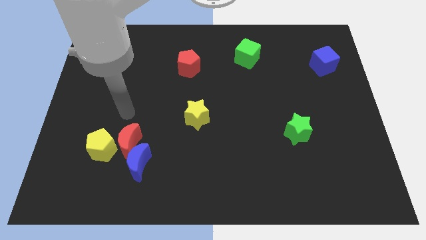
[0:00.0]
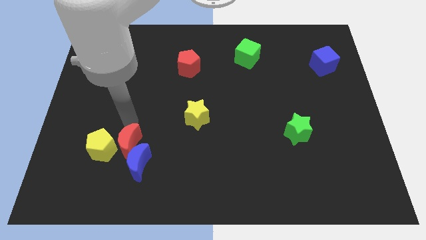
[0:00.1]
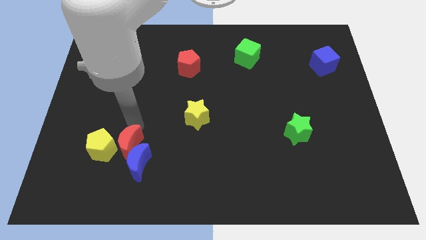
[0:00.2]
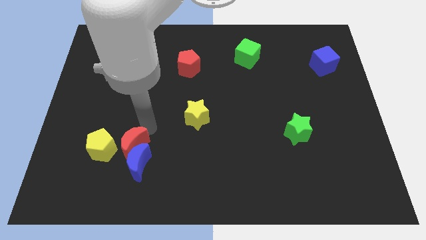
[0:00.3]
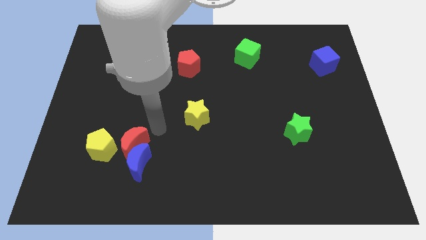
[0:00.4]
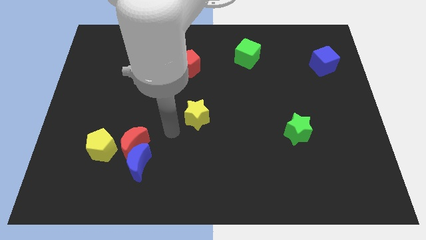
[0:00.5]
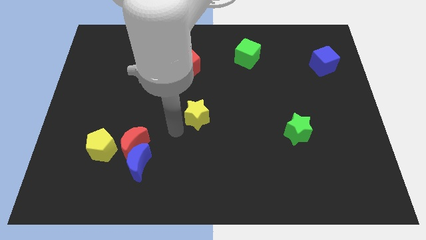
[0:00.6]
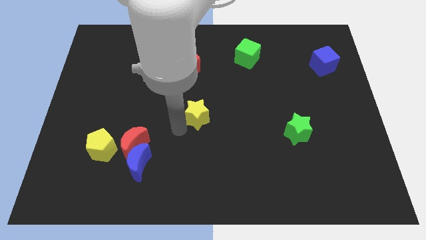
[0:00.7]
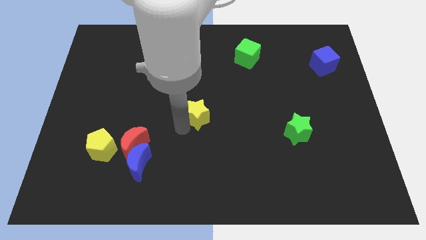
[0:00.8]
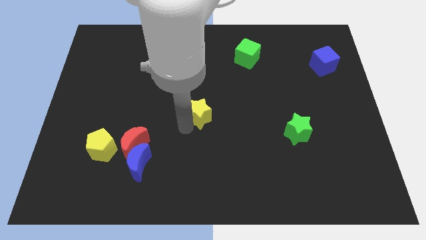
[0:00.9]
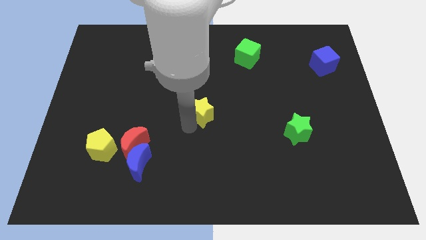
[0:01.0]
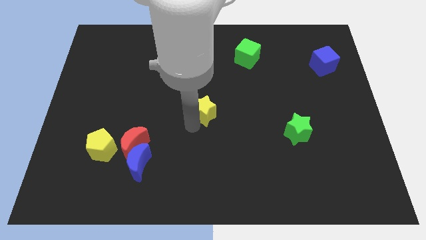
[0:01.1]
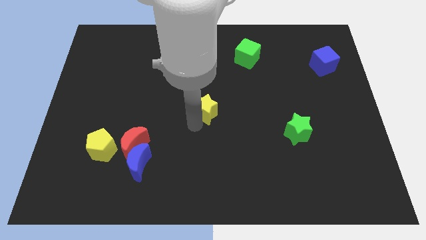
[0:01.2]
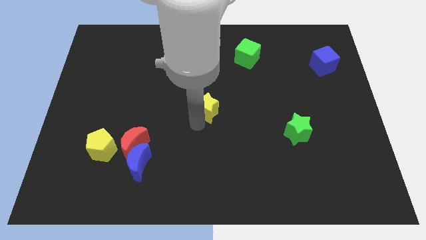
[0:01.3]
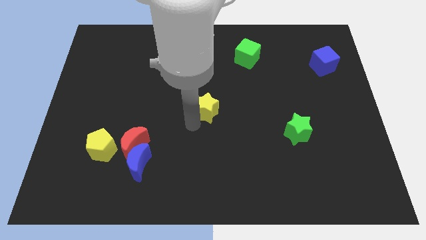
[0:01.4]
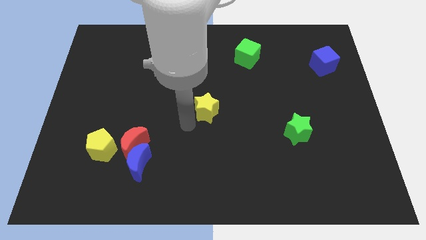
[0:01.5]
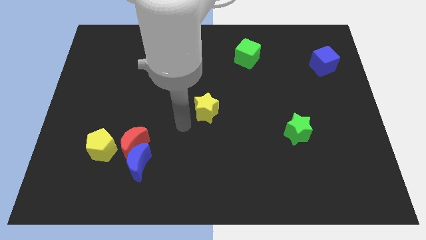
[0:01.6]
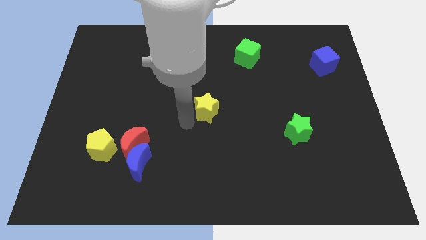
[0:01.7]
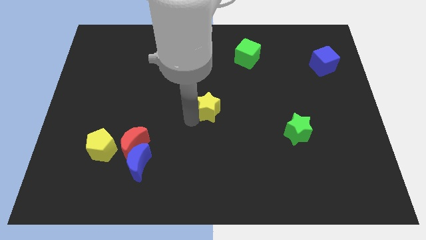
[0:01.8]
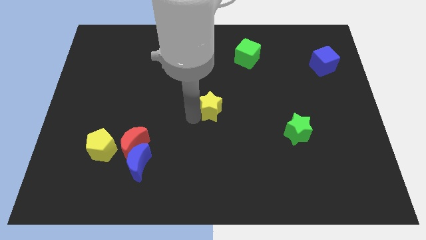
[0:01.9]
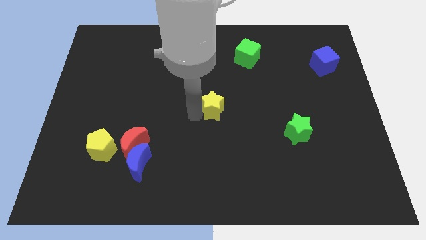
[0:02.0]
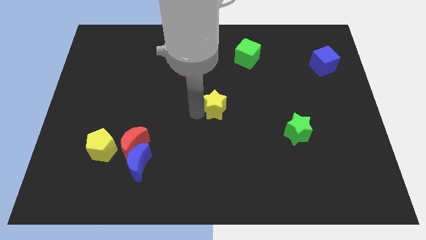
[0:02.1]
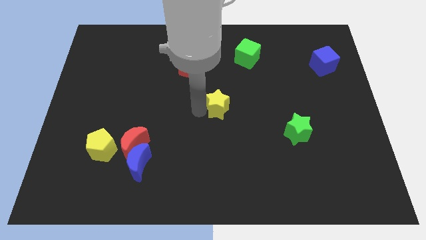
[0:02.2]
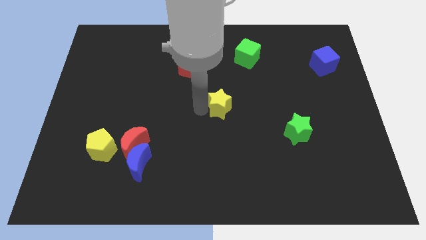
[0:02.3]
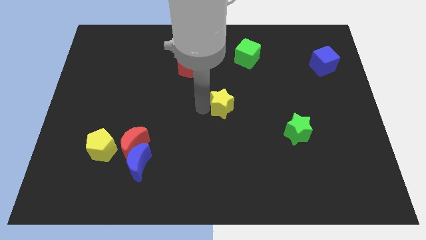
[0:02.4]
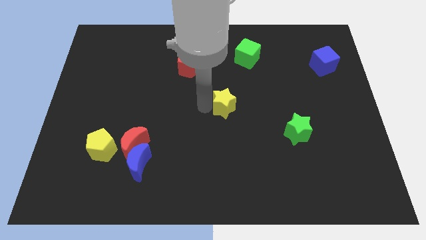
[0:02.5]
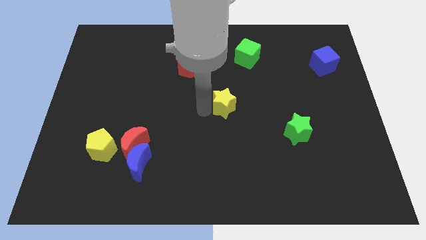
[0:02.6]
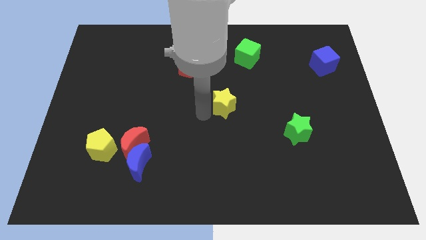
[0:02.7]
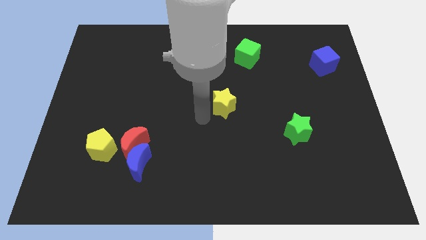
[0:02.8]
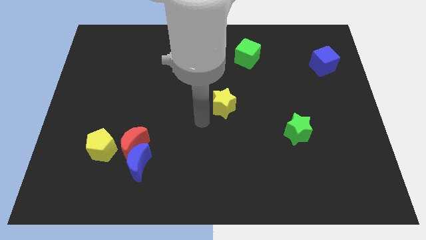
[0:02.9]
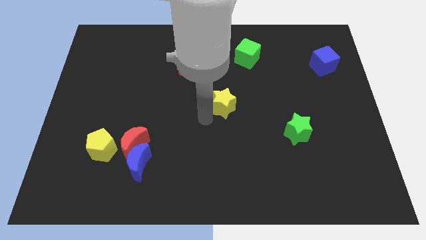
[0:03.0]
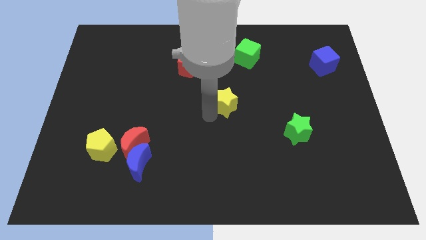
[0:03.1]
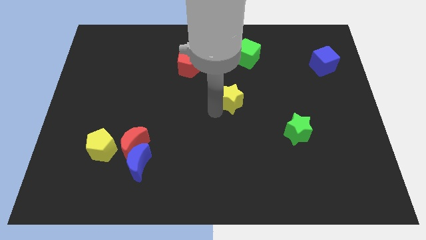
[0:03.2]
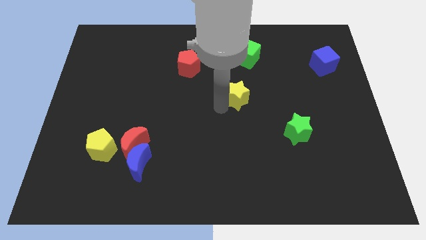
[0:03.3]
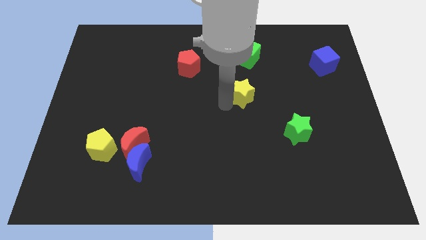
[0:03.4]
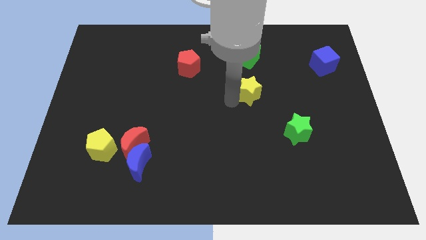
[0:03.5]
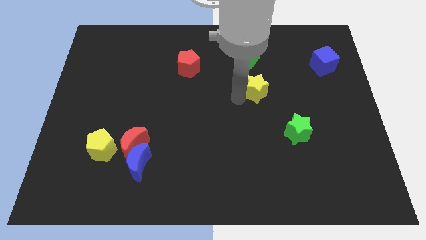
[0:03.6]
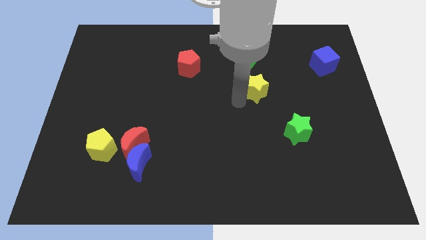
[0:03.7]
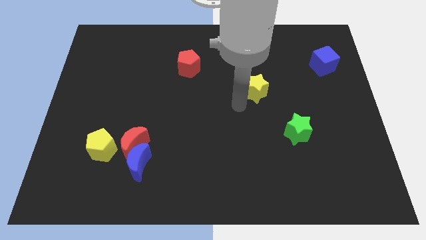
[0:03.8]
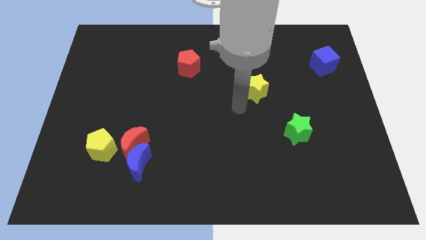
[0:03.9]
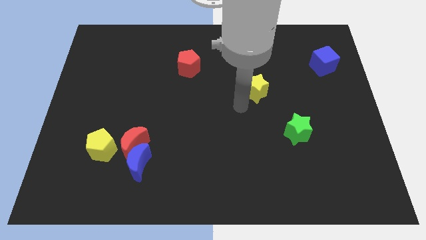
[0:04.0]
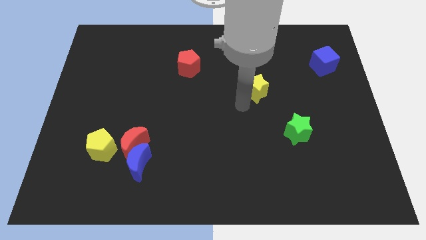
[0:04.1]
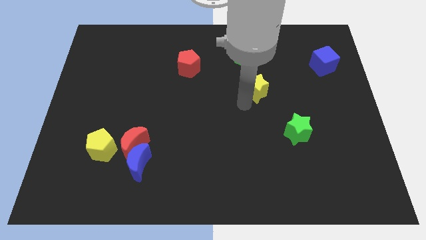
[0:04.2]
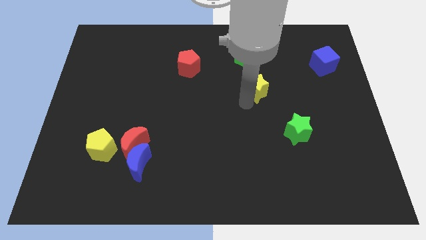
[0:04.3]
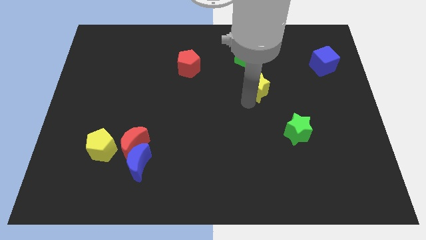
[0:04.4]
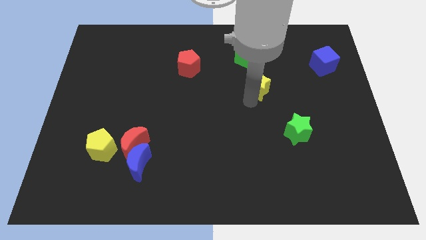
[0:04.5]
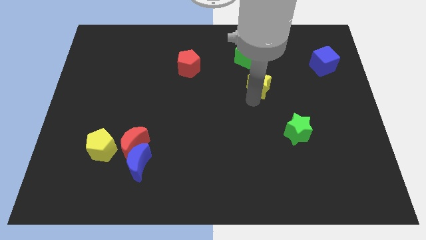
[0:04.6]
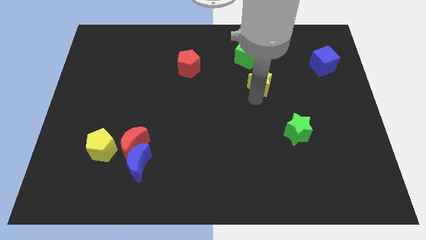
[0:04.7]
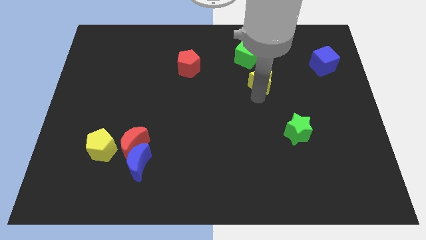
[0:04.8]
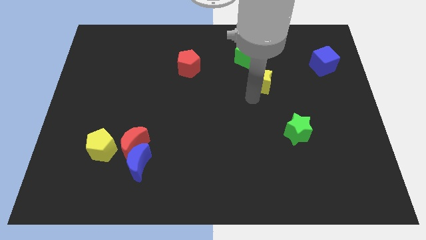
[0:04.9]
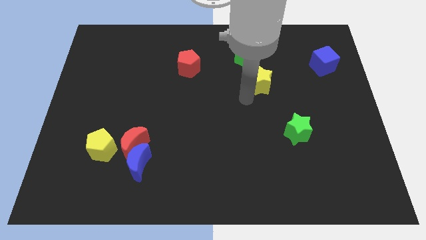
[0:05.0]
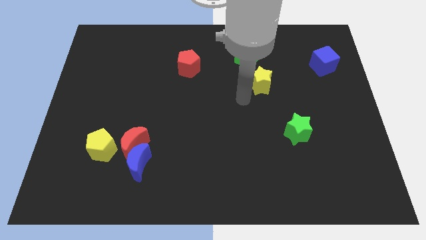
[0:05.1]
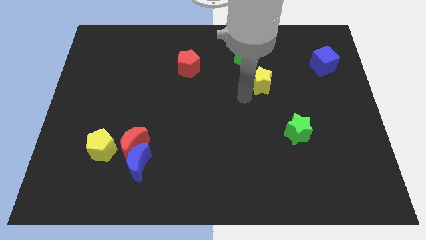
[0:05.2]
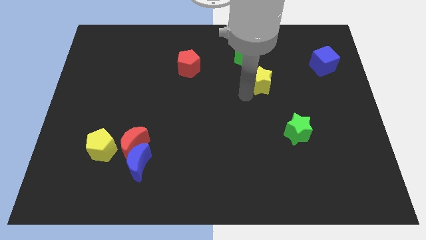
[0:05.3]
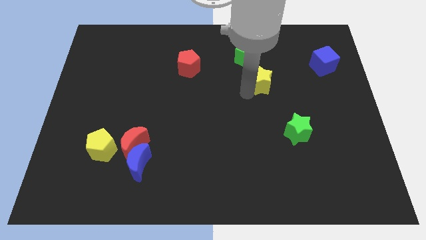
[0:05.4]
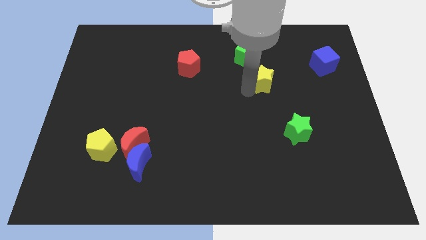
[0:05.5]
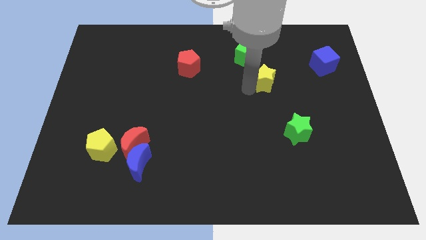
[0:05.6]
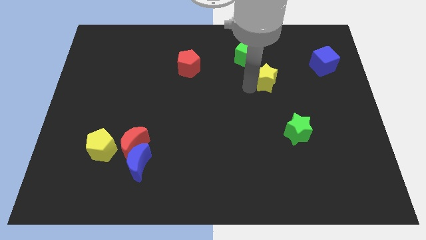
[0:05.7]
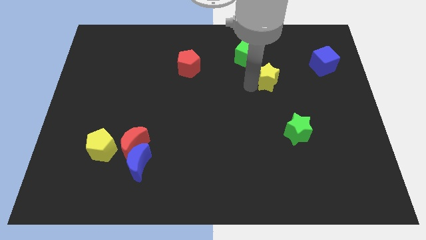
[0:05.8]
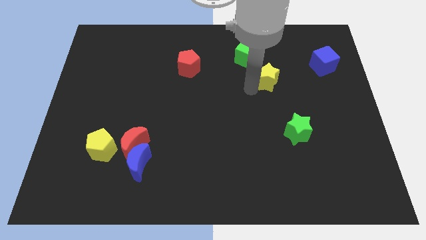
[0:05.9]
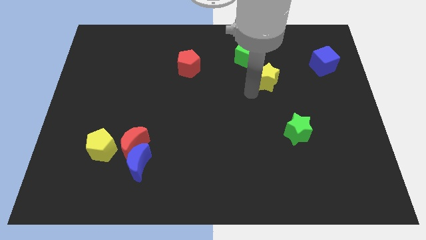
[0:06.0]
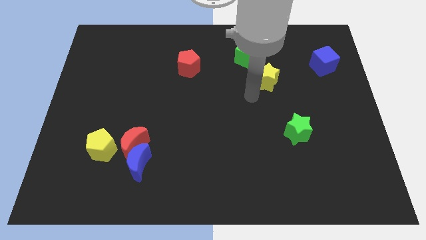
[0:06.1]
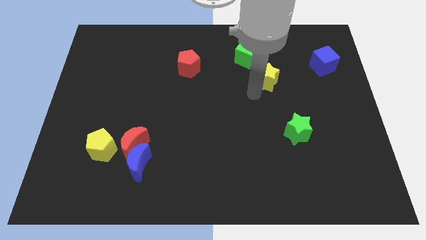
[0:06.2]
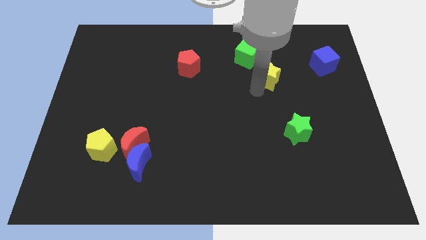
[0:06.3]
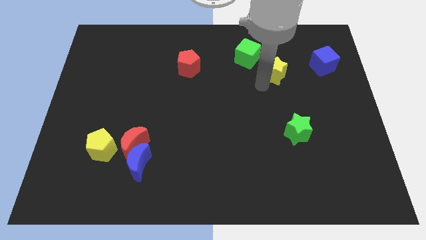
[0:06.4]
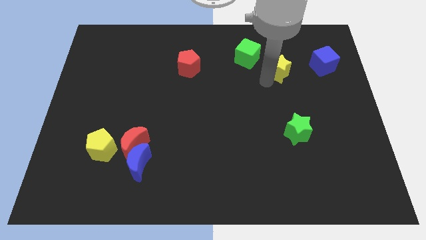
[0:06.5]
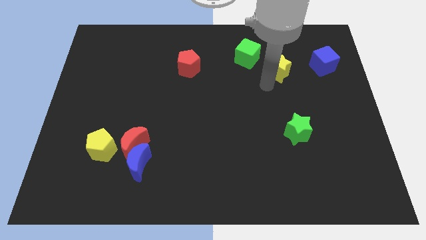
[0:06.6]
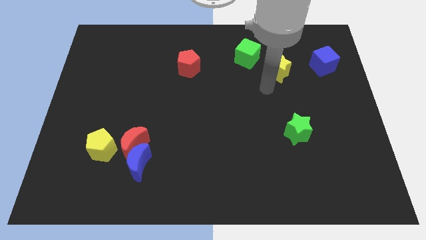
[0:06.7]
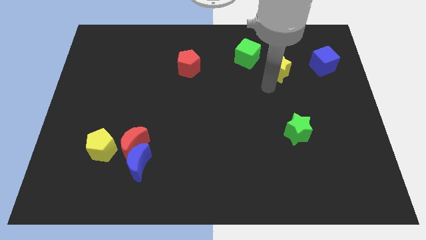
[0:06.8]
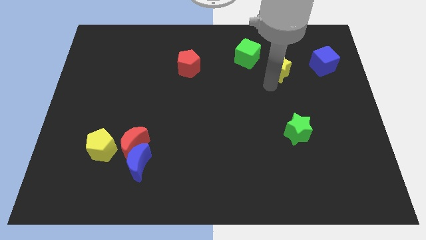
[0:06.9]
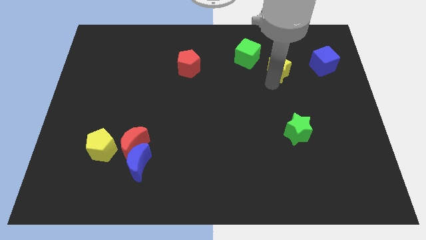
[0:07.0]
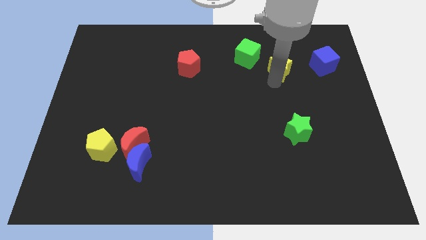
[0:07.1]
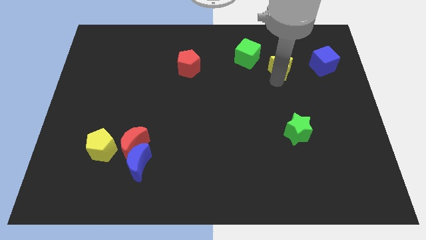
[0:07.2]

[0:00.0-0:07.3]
push the yellow star to the right of the green cube
